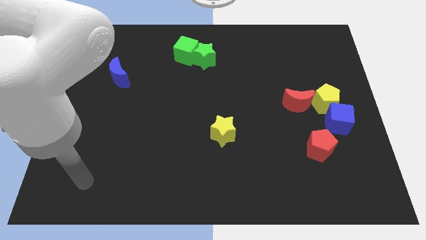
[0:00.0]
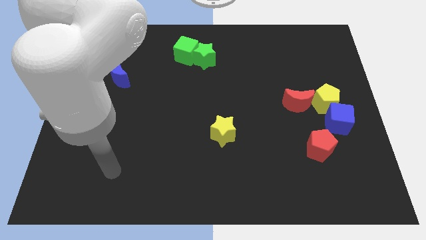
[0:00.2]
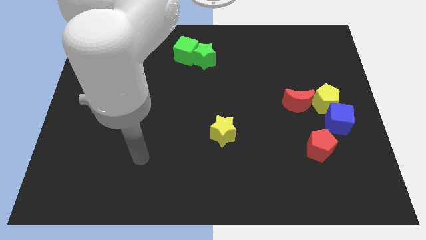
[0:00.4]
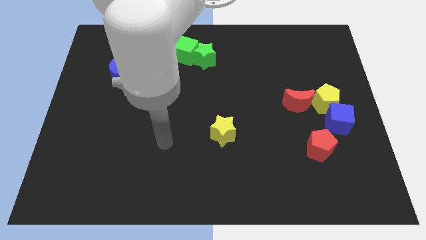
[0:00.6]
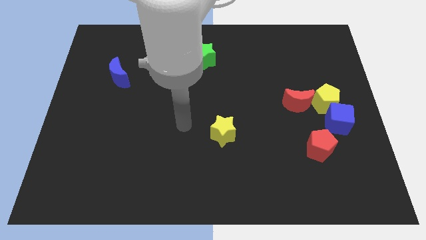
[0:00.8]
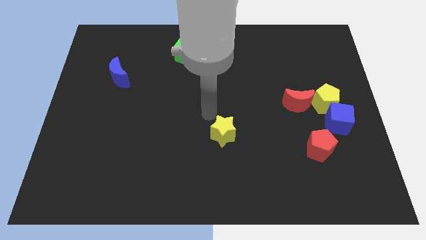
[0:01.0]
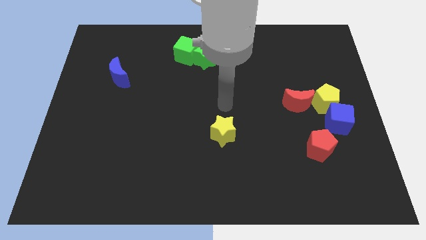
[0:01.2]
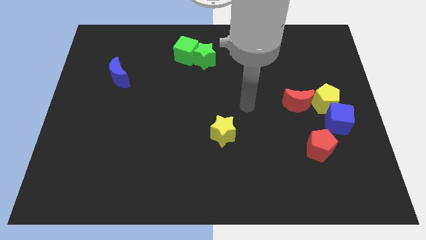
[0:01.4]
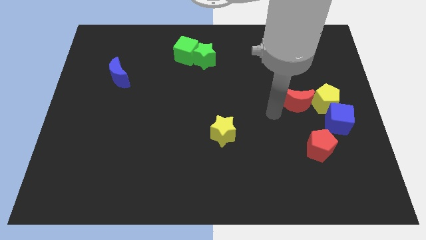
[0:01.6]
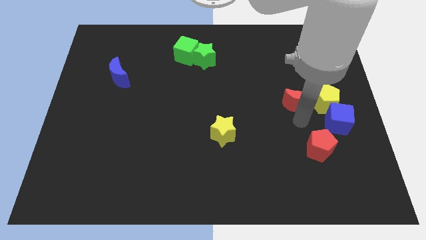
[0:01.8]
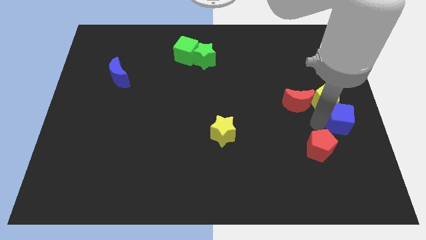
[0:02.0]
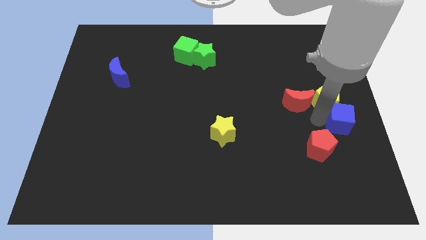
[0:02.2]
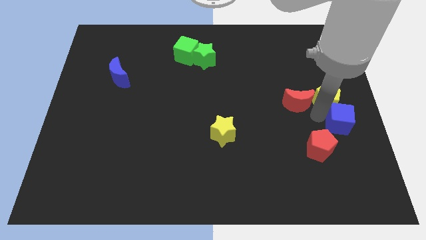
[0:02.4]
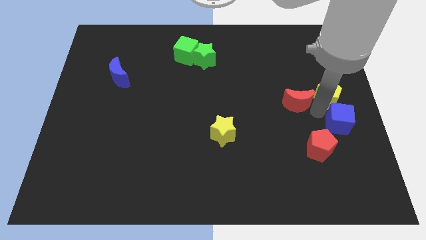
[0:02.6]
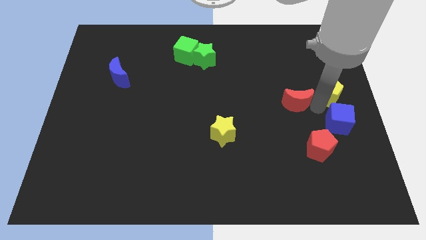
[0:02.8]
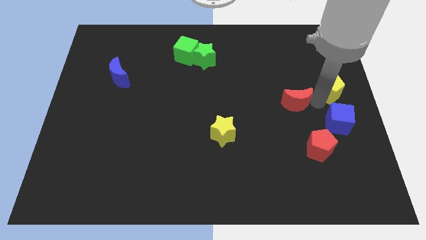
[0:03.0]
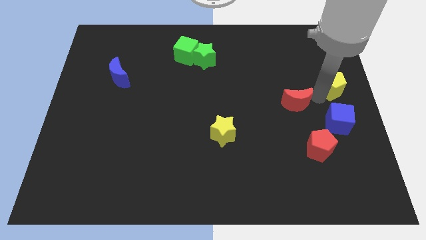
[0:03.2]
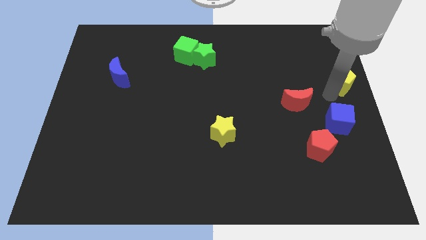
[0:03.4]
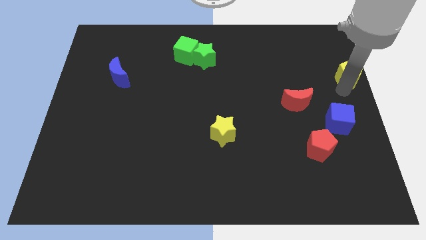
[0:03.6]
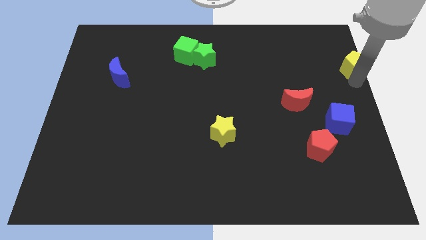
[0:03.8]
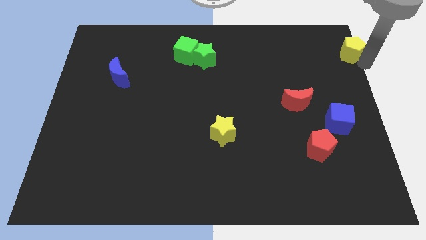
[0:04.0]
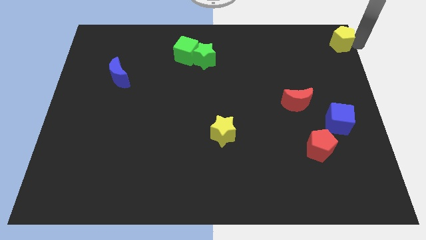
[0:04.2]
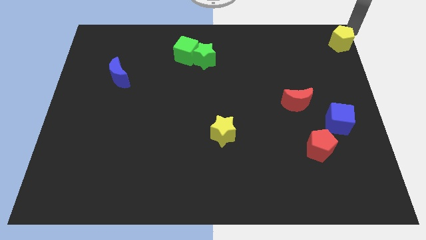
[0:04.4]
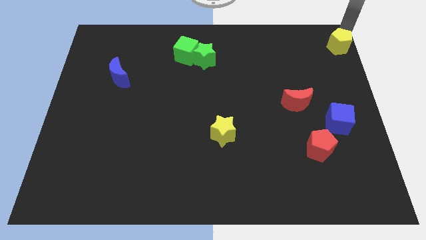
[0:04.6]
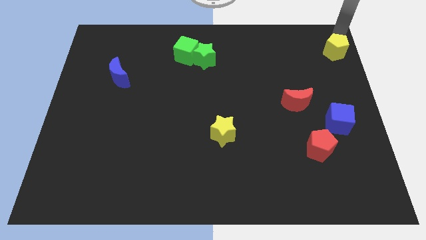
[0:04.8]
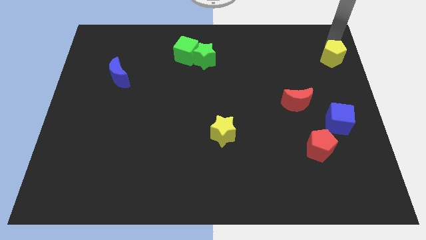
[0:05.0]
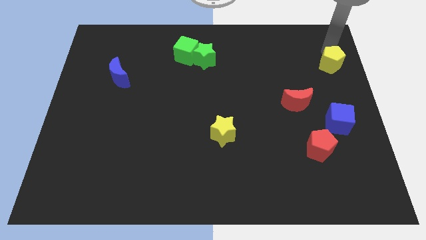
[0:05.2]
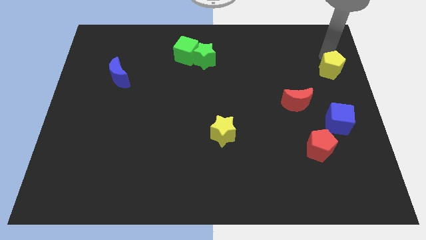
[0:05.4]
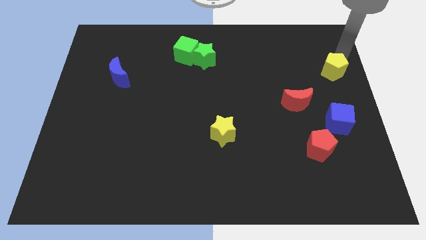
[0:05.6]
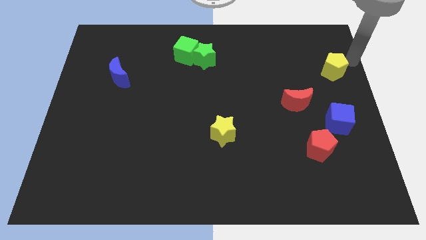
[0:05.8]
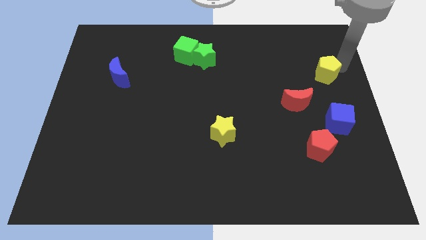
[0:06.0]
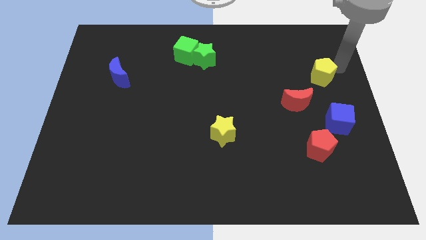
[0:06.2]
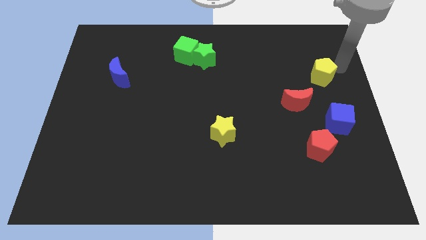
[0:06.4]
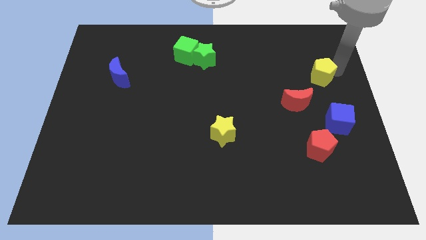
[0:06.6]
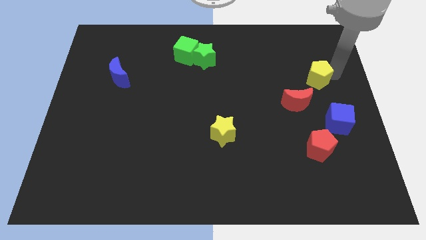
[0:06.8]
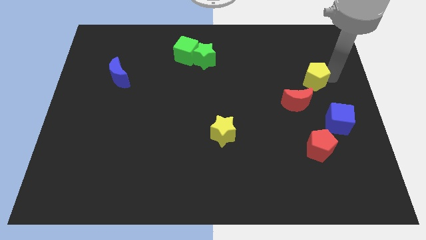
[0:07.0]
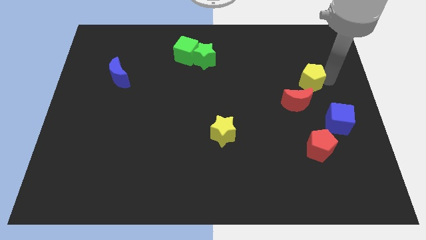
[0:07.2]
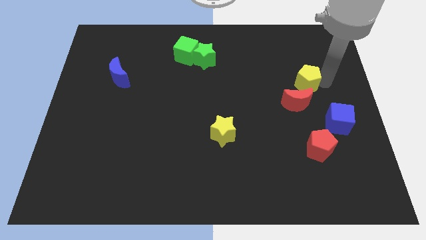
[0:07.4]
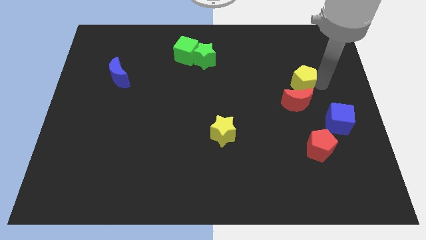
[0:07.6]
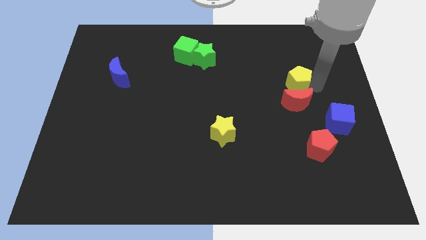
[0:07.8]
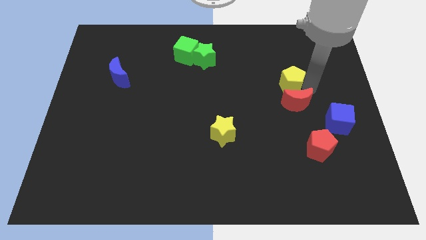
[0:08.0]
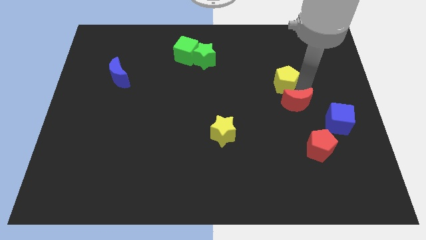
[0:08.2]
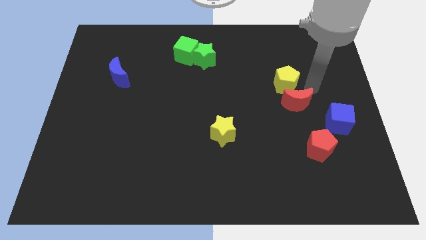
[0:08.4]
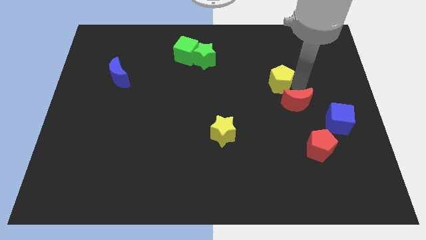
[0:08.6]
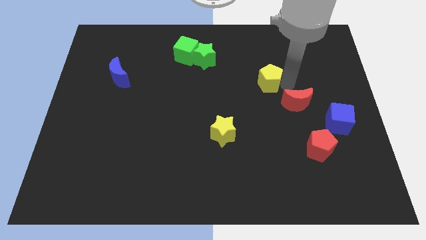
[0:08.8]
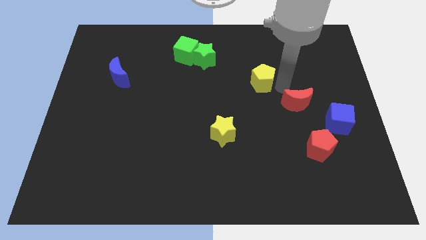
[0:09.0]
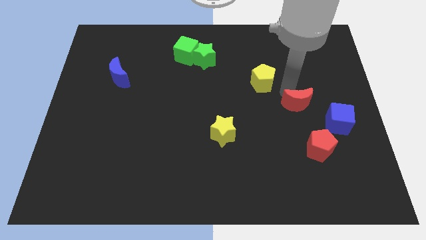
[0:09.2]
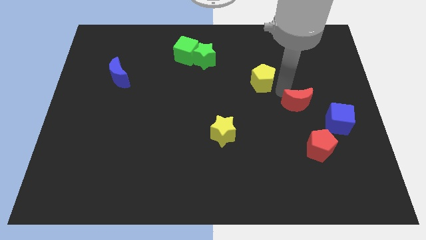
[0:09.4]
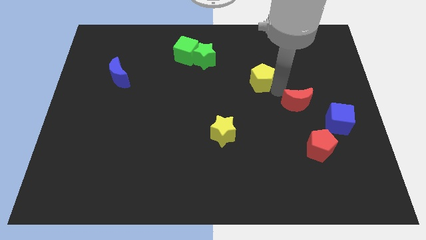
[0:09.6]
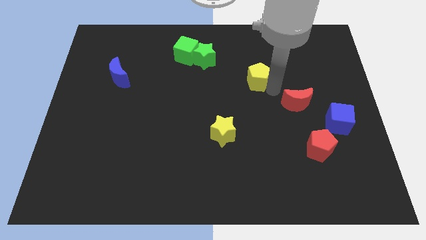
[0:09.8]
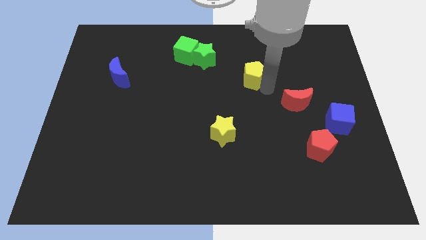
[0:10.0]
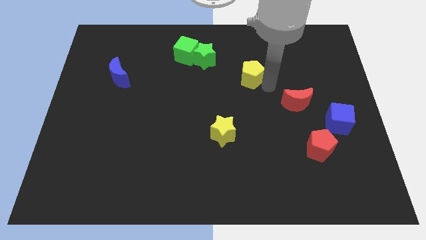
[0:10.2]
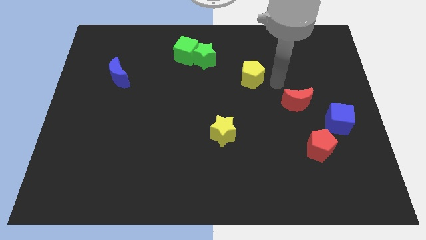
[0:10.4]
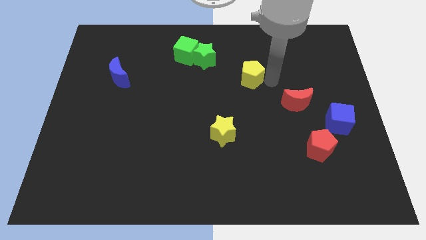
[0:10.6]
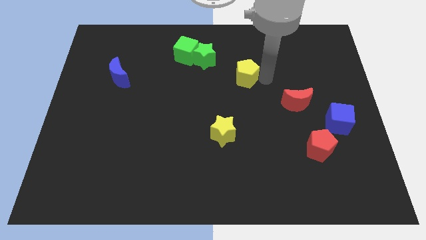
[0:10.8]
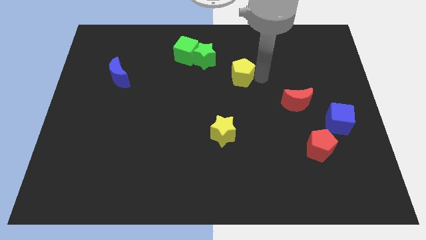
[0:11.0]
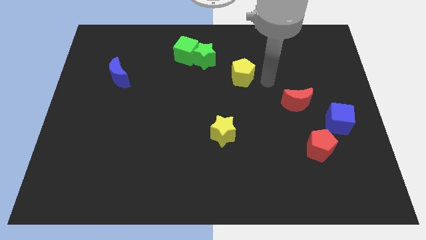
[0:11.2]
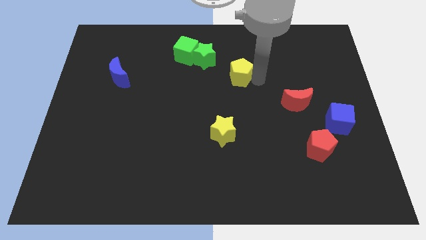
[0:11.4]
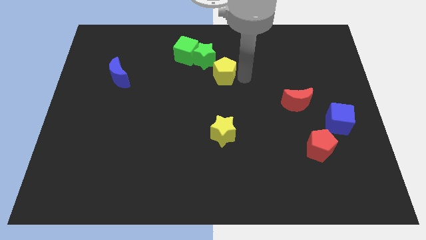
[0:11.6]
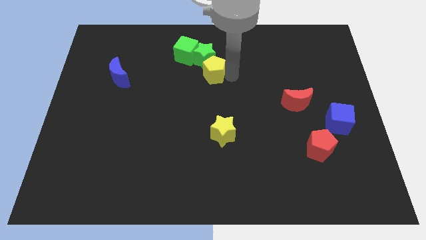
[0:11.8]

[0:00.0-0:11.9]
put the yellow pentagon to the green star

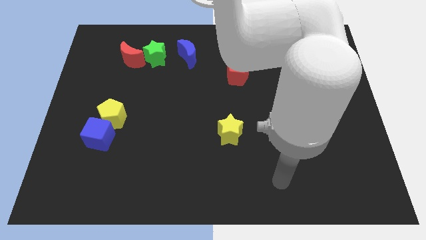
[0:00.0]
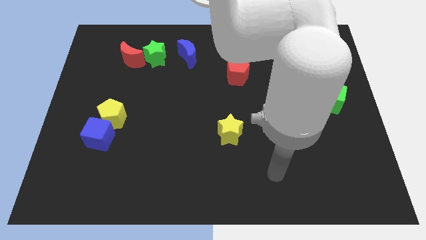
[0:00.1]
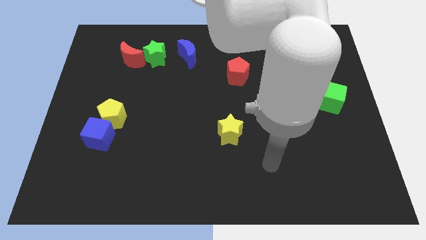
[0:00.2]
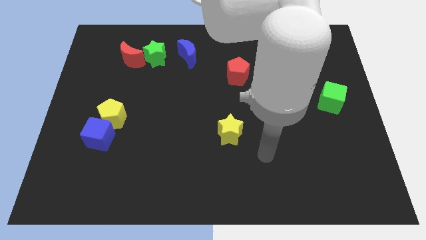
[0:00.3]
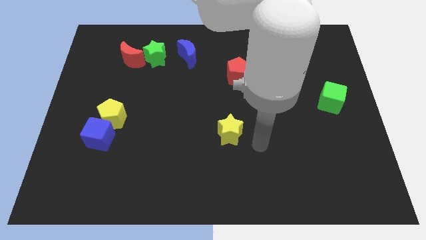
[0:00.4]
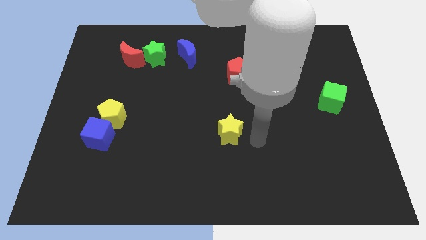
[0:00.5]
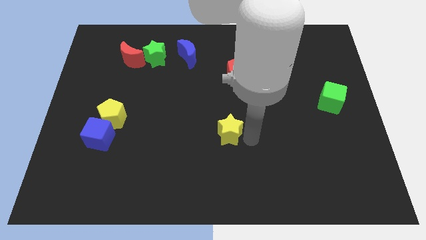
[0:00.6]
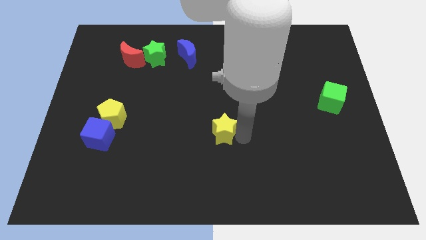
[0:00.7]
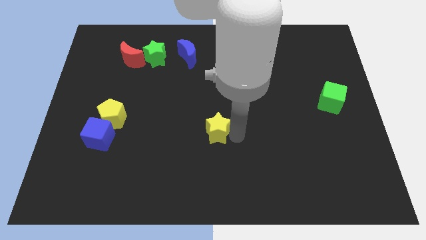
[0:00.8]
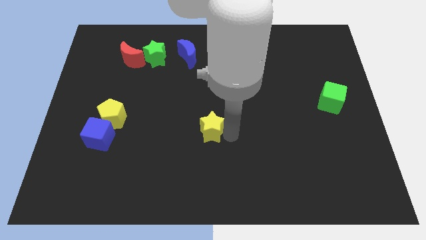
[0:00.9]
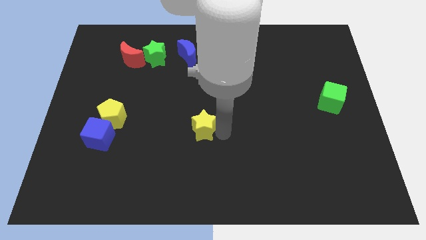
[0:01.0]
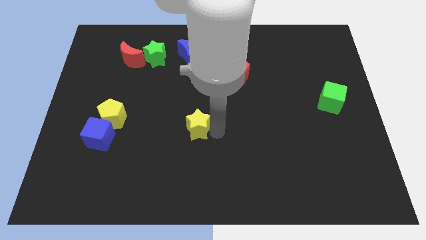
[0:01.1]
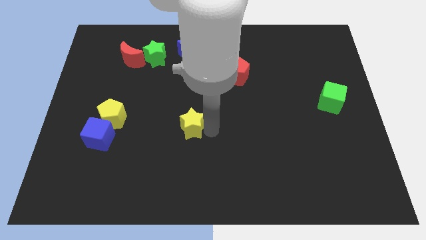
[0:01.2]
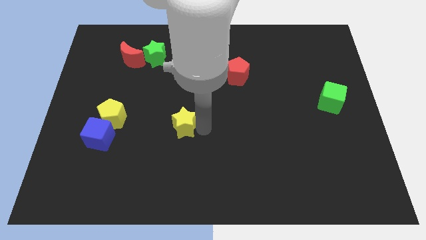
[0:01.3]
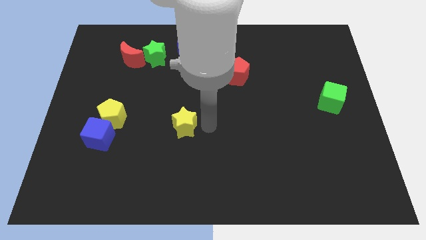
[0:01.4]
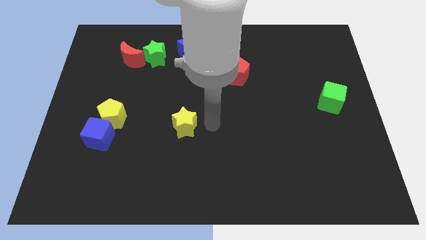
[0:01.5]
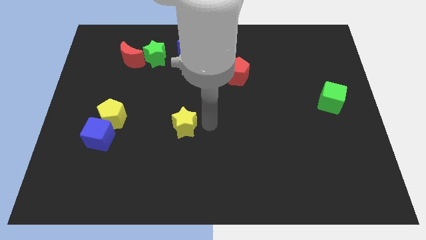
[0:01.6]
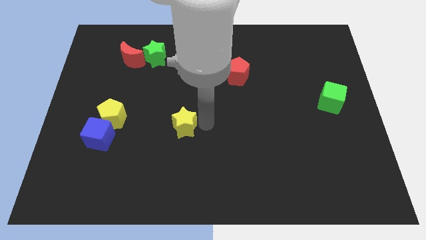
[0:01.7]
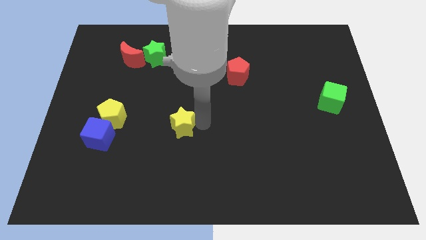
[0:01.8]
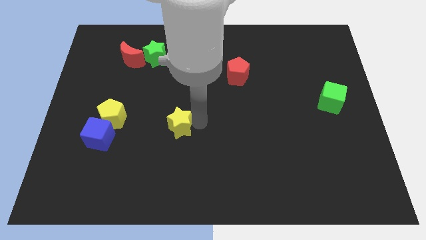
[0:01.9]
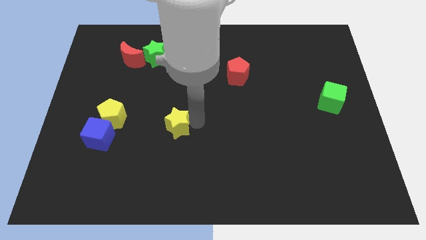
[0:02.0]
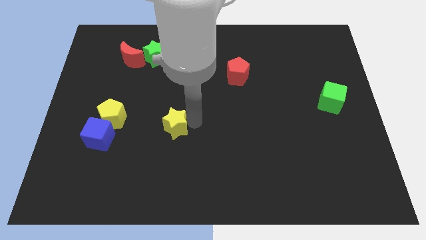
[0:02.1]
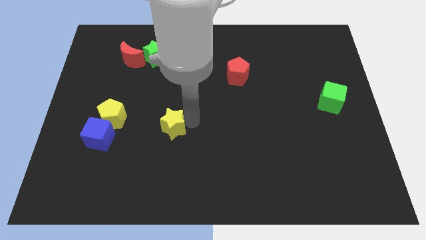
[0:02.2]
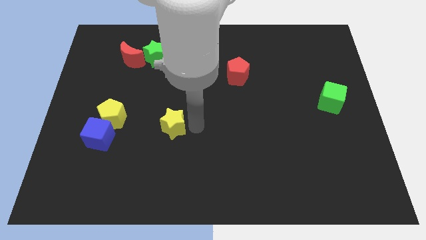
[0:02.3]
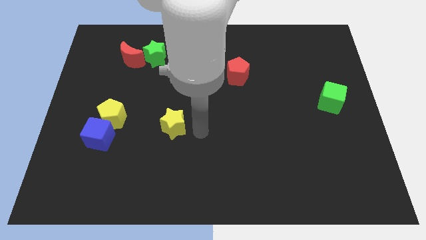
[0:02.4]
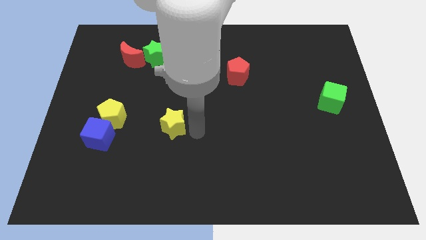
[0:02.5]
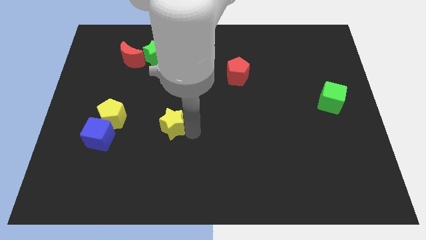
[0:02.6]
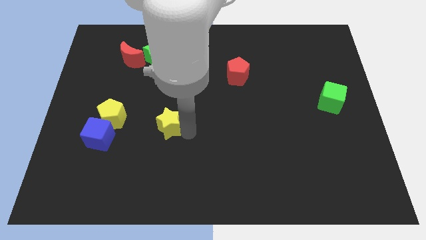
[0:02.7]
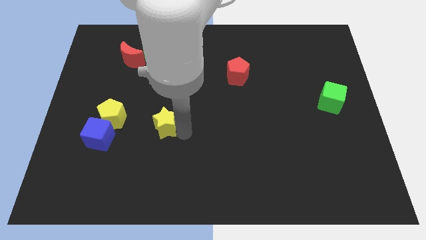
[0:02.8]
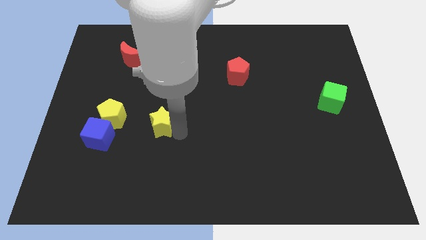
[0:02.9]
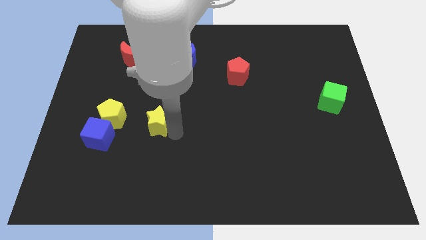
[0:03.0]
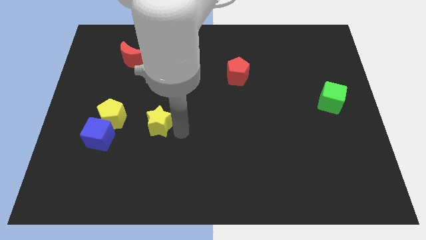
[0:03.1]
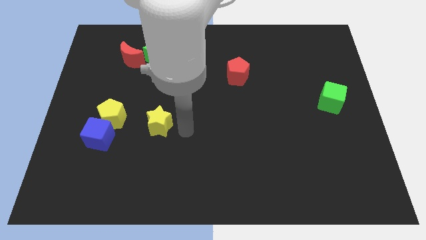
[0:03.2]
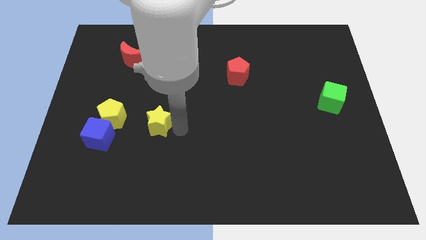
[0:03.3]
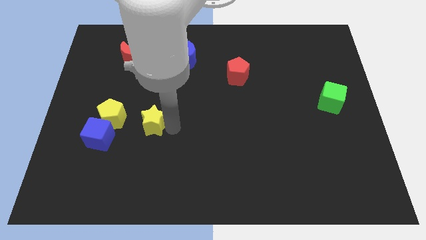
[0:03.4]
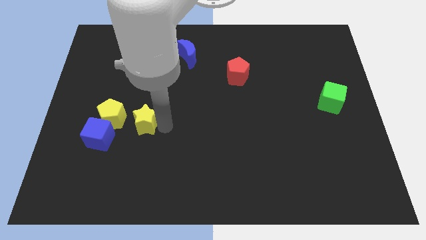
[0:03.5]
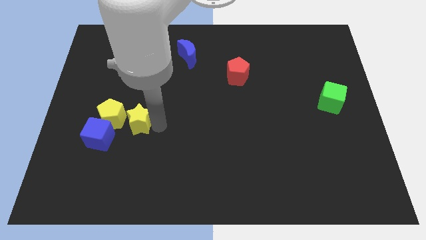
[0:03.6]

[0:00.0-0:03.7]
put the yellow star to the yellow pentagon
